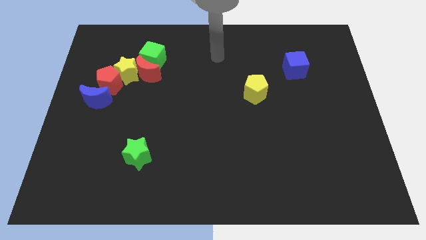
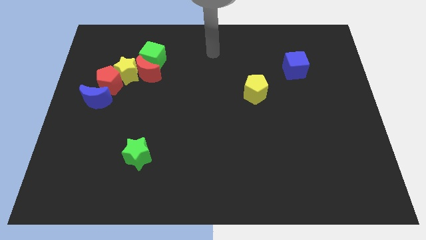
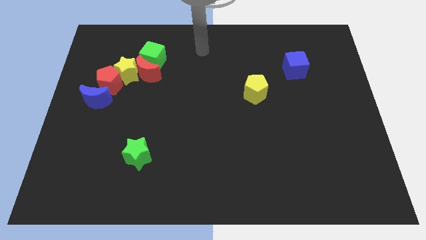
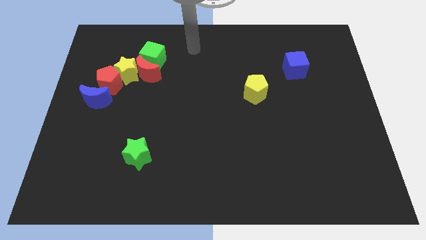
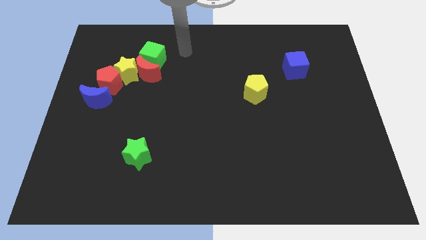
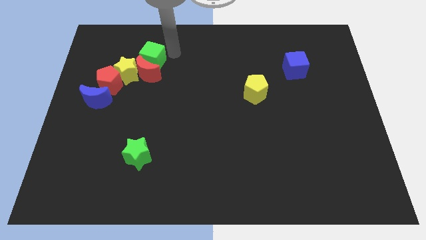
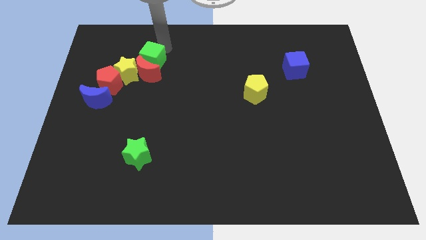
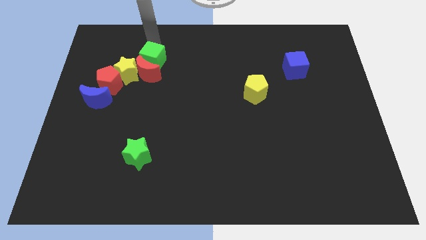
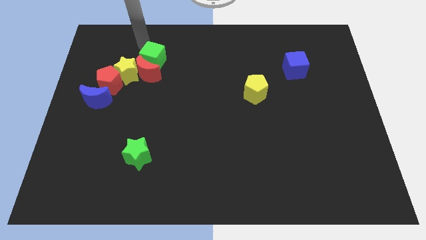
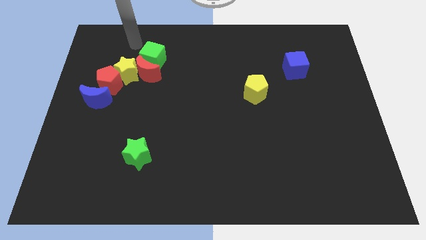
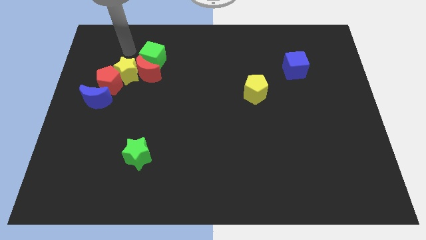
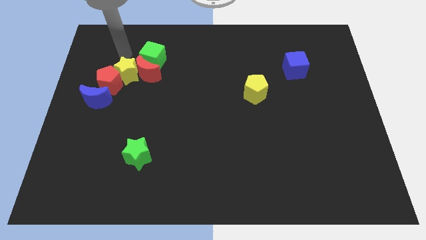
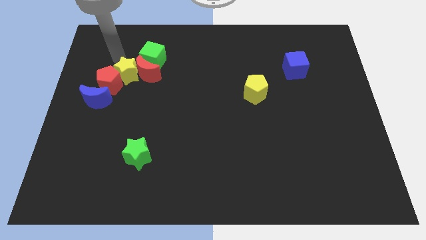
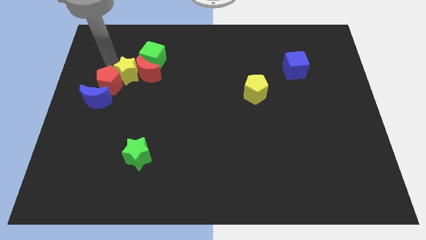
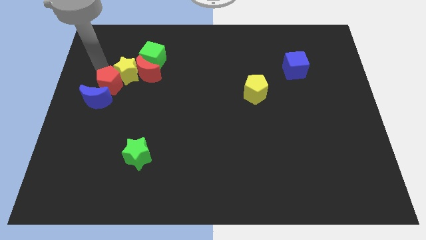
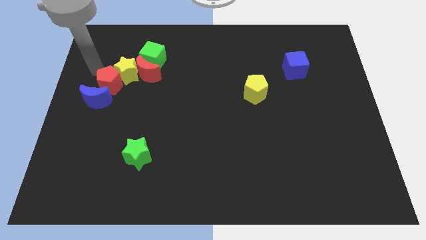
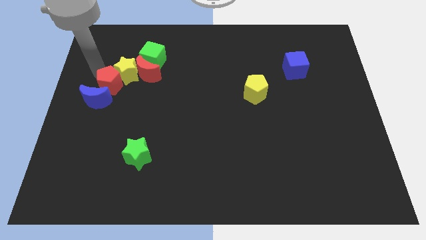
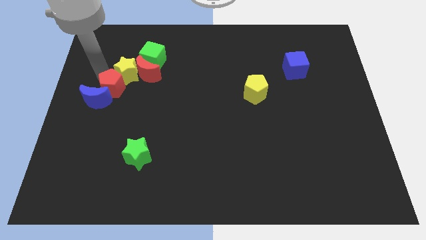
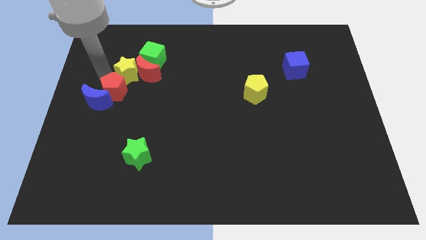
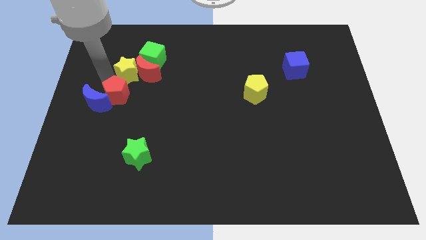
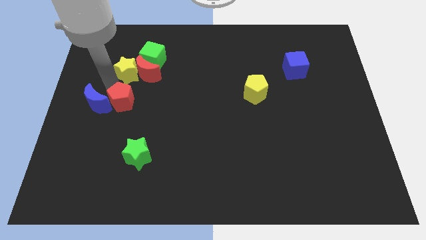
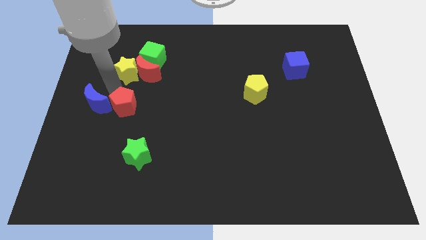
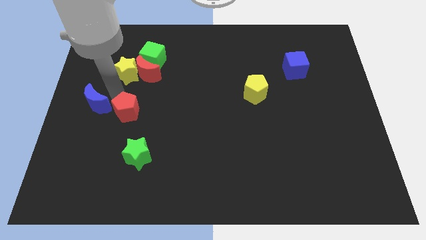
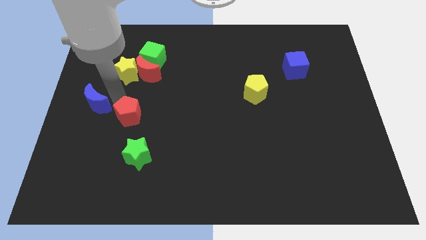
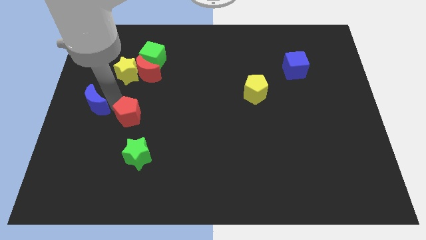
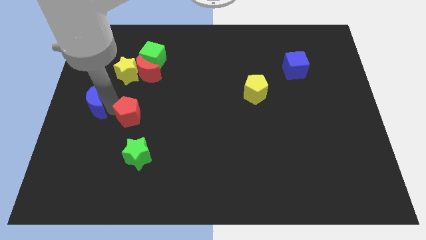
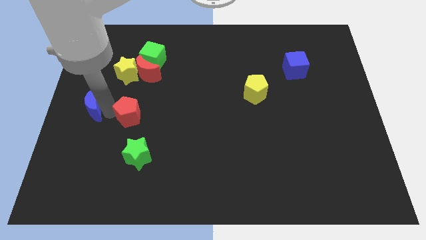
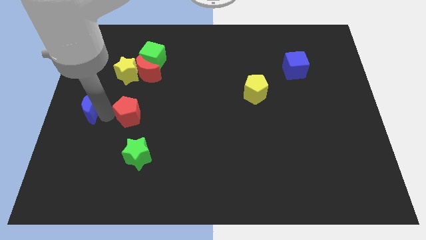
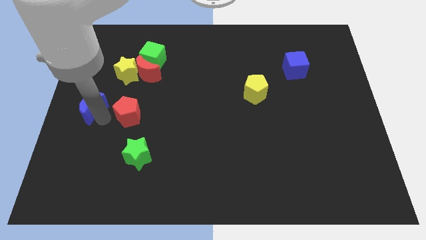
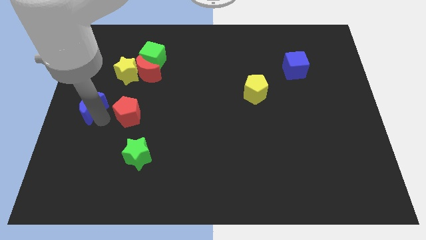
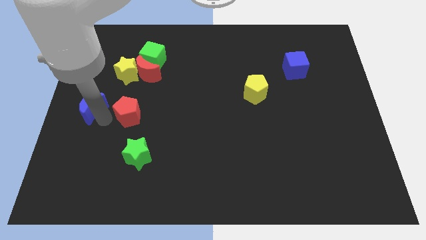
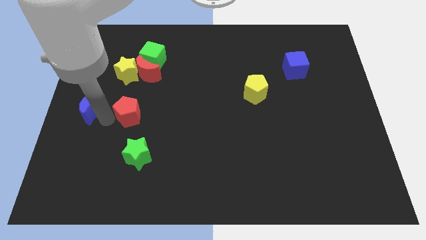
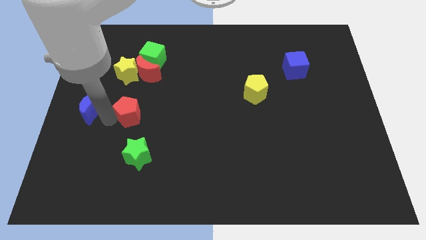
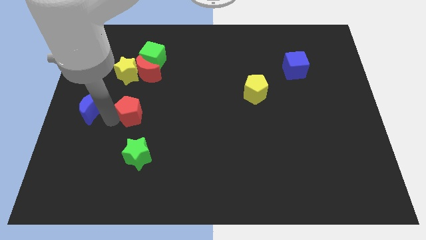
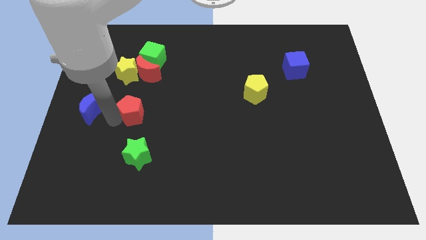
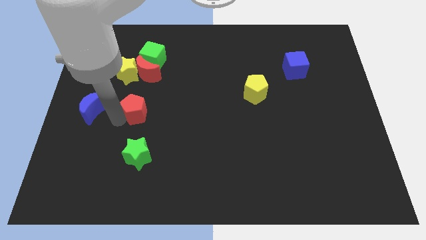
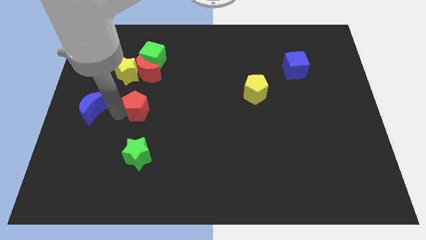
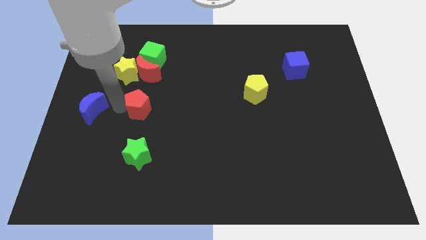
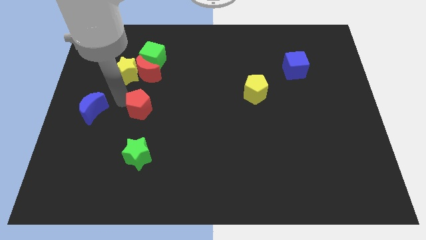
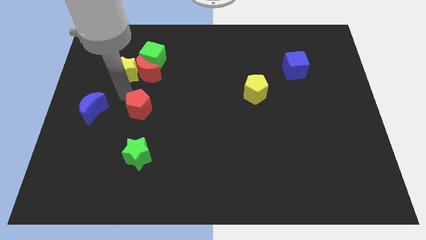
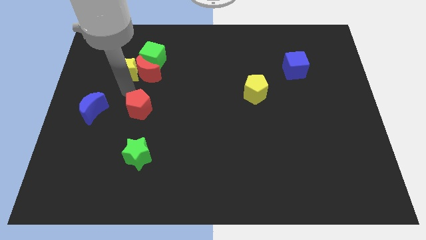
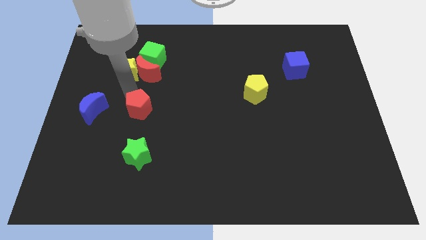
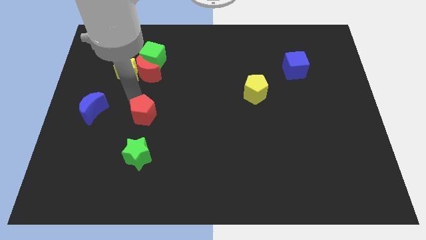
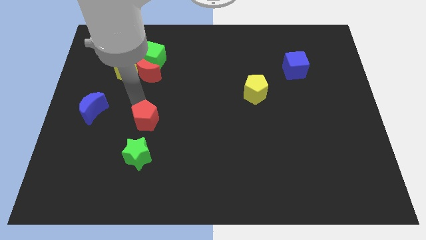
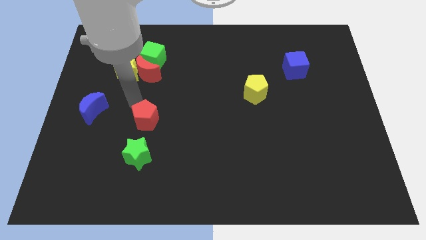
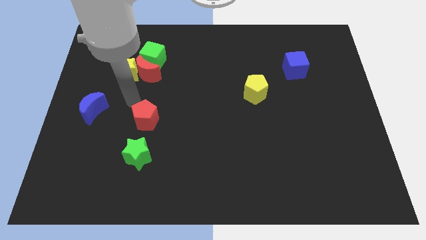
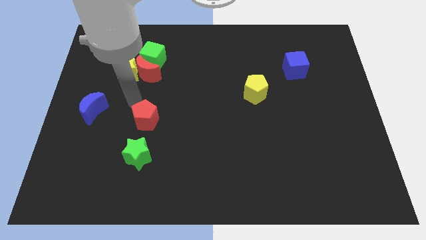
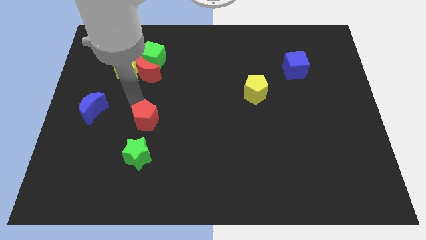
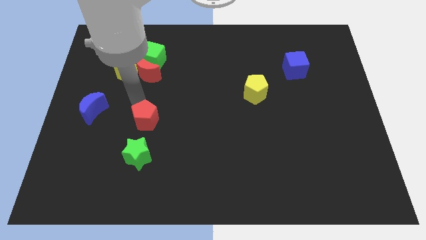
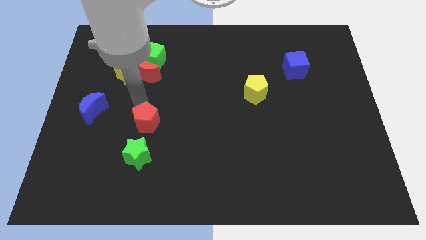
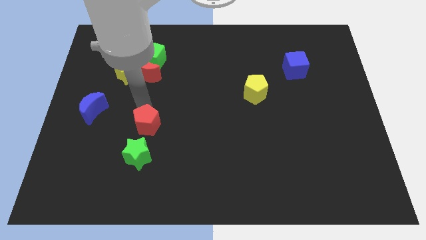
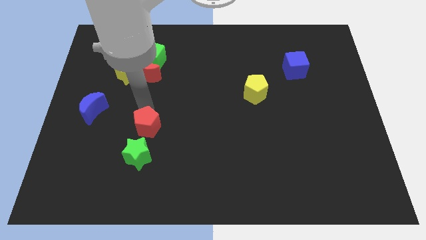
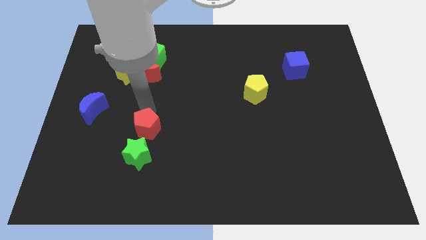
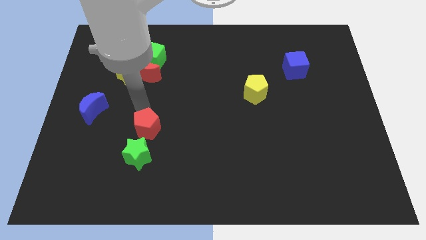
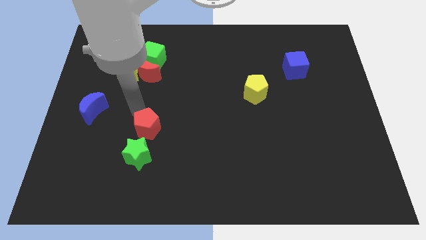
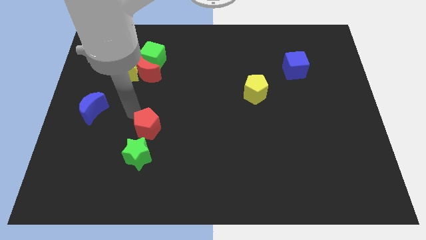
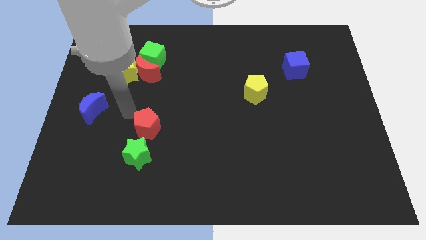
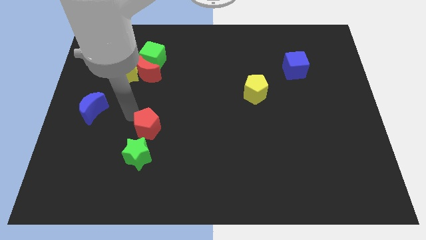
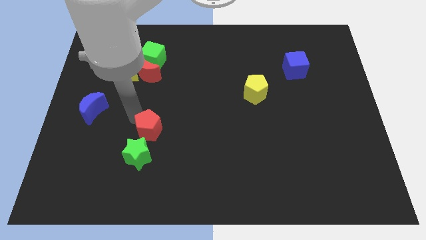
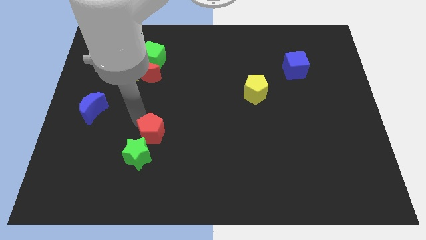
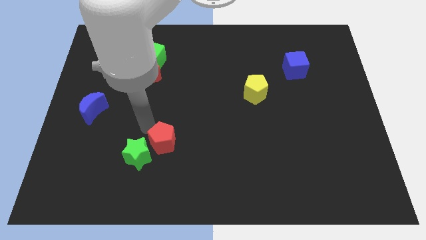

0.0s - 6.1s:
slide the red pentagon just right of the green star

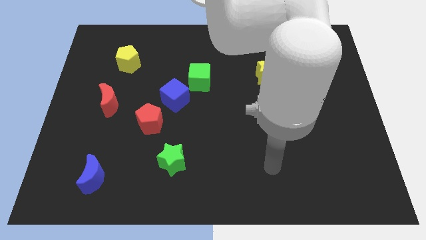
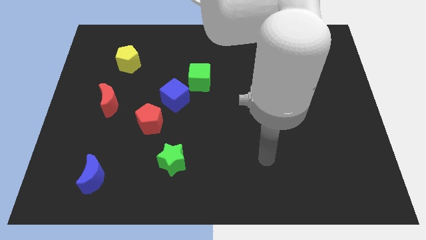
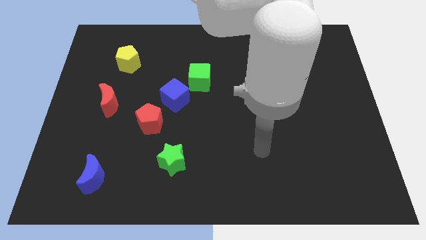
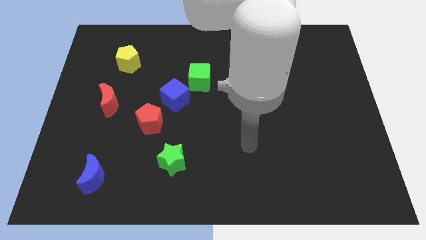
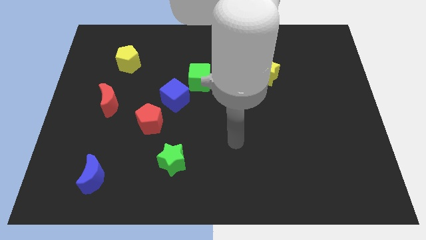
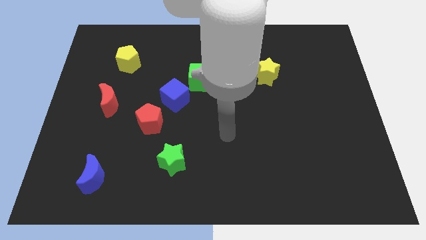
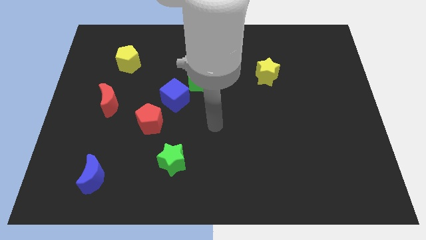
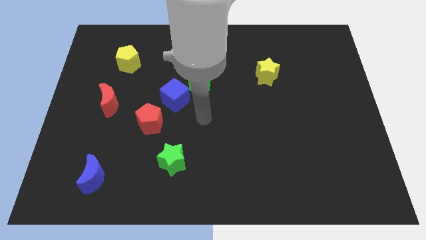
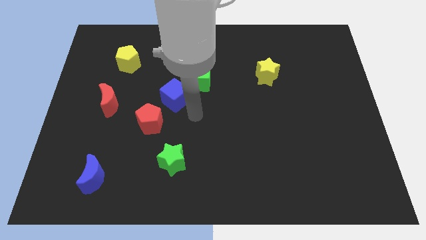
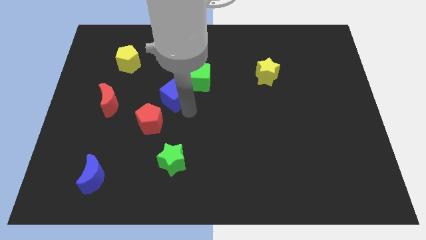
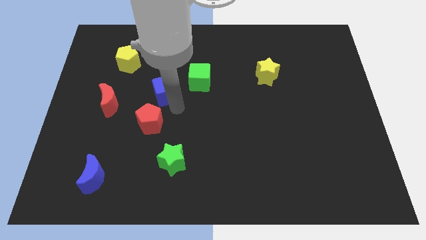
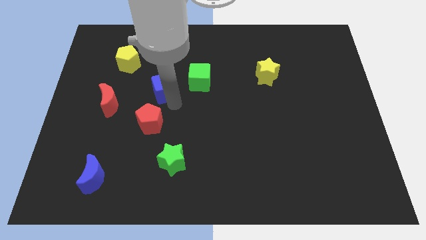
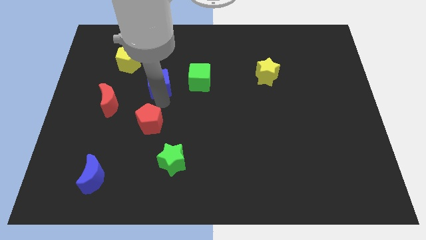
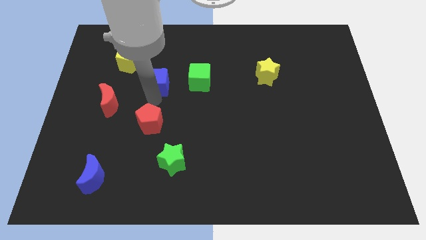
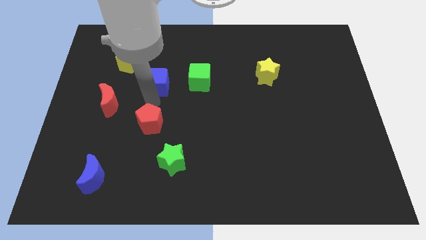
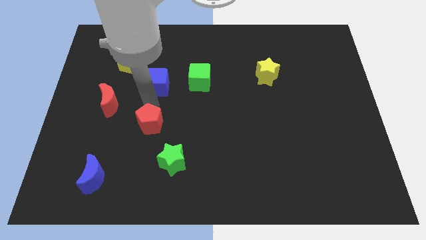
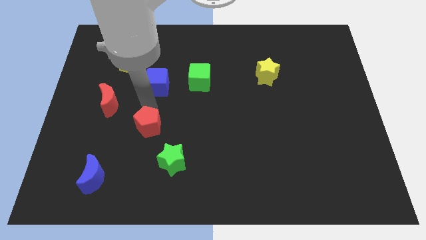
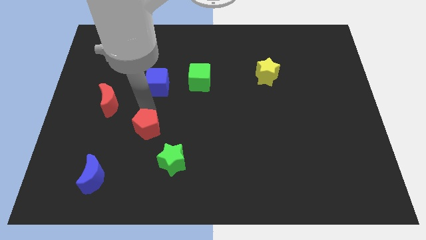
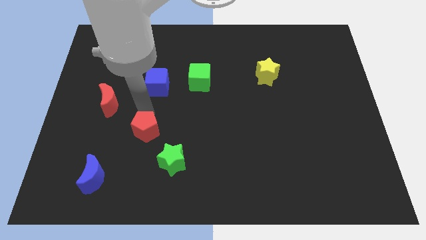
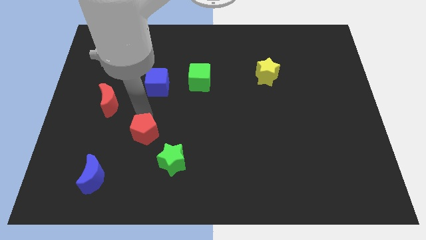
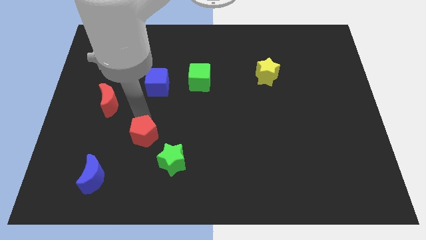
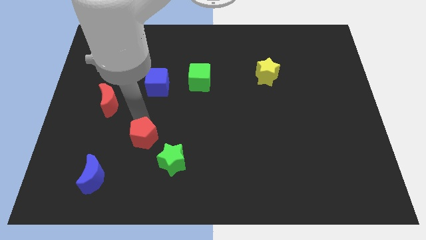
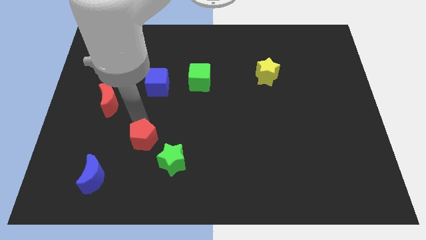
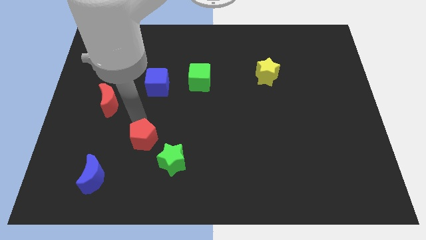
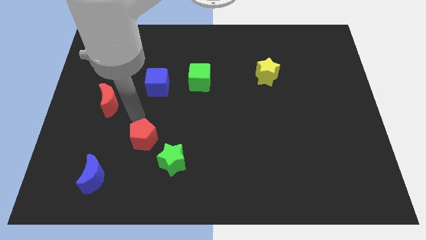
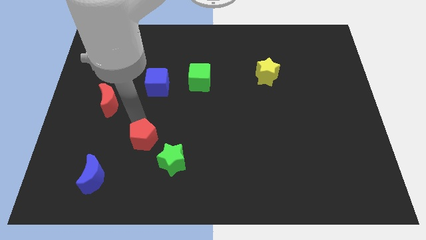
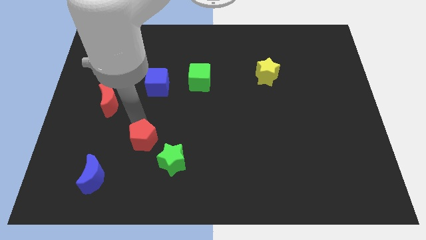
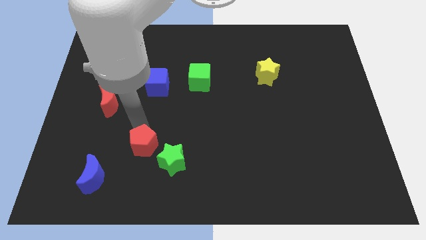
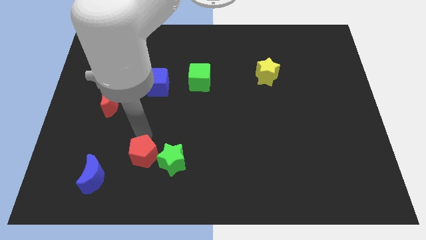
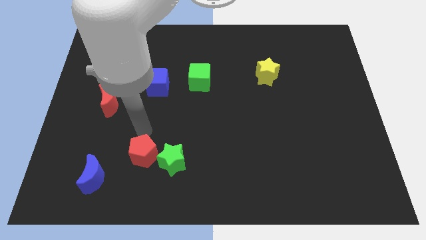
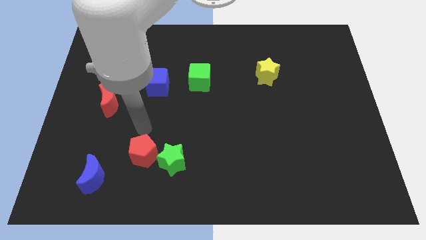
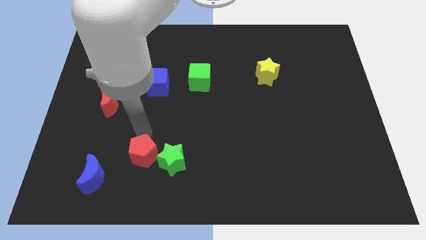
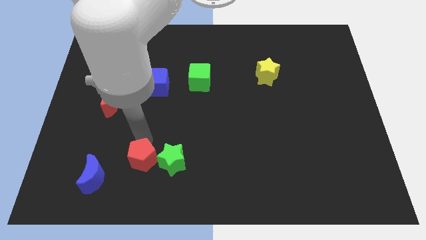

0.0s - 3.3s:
move the red pentagon just right of the blue moon
